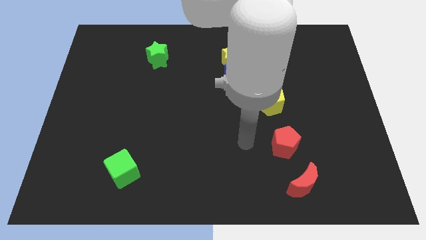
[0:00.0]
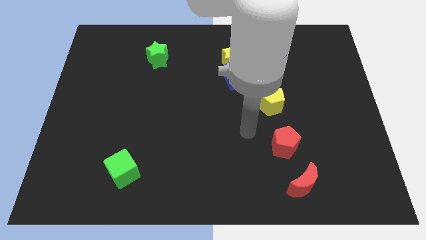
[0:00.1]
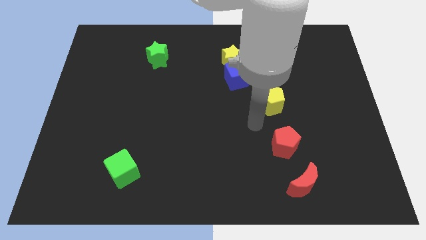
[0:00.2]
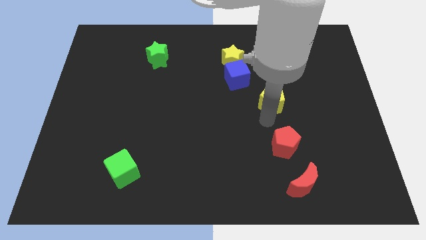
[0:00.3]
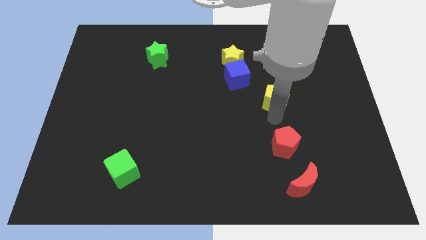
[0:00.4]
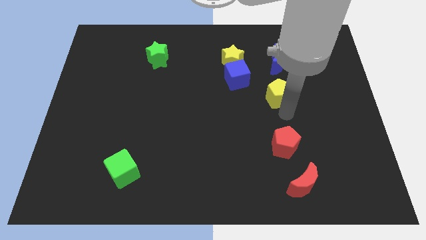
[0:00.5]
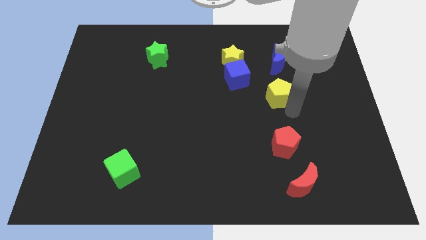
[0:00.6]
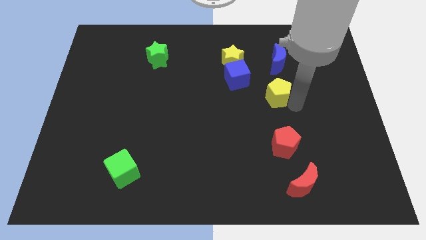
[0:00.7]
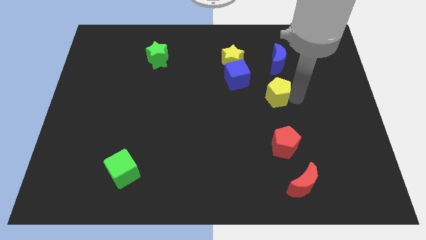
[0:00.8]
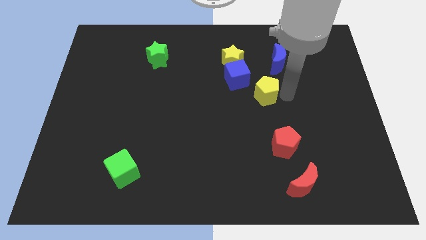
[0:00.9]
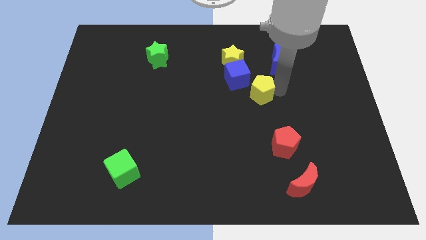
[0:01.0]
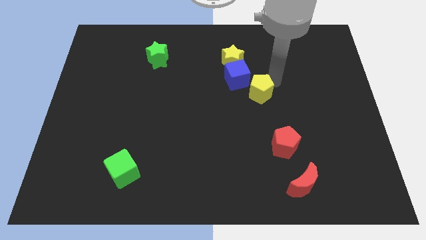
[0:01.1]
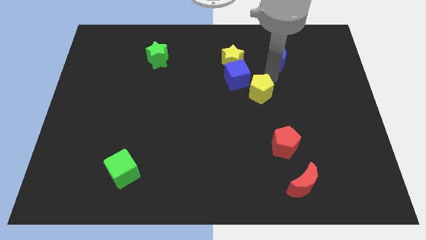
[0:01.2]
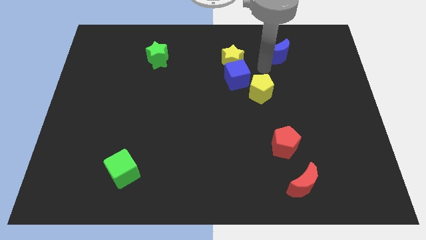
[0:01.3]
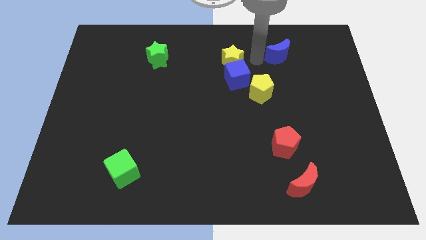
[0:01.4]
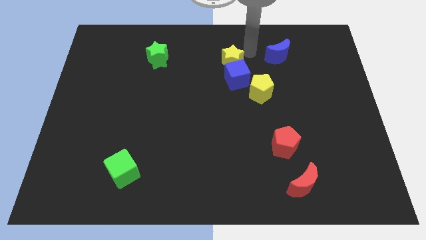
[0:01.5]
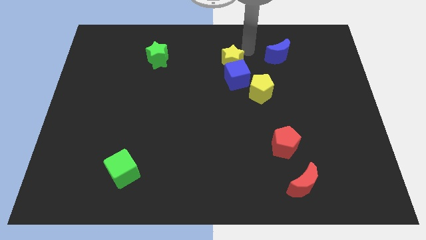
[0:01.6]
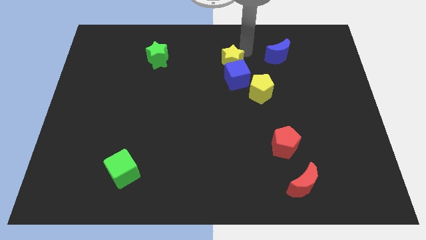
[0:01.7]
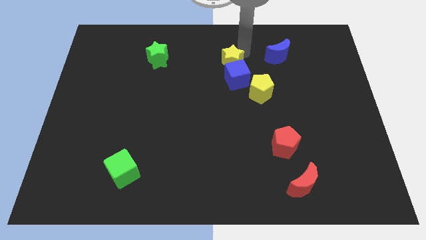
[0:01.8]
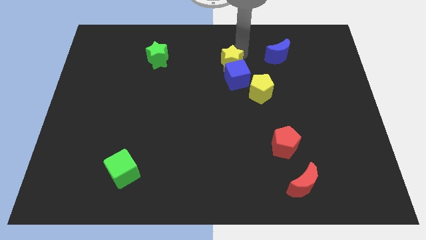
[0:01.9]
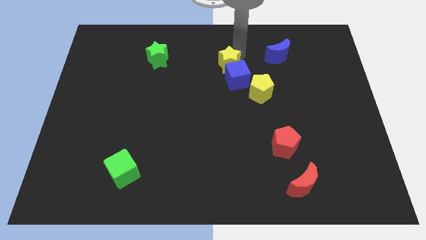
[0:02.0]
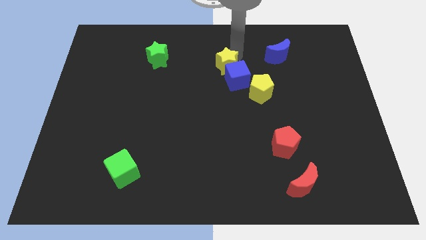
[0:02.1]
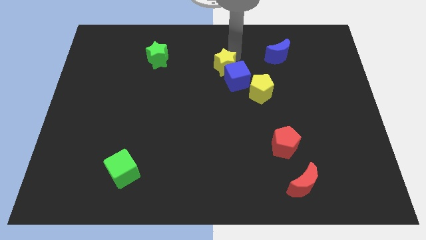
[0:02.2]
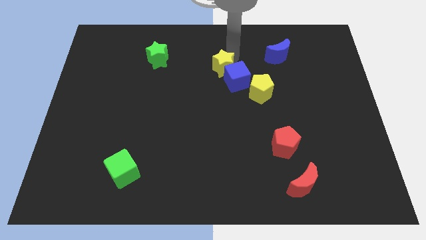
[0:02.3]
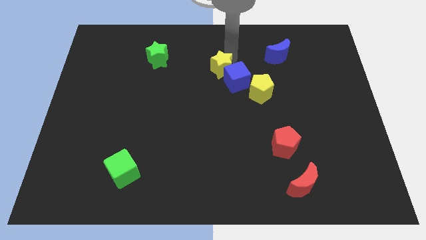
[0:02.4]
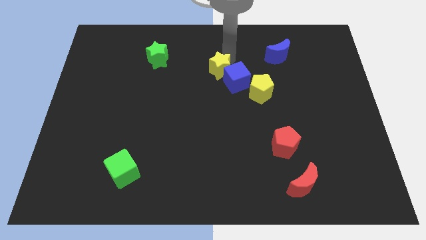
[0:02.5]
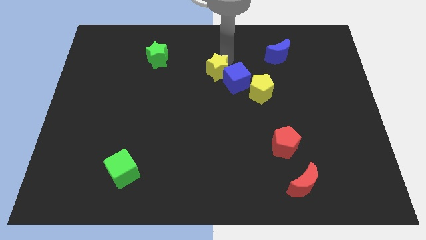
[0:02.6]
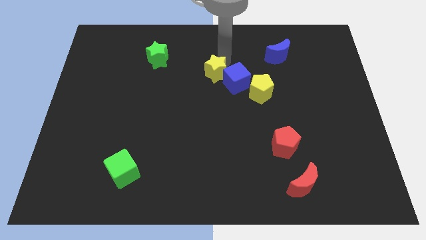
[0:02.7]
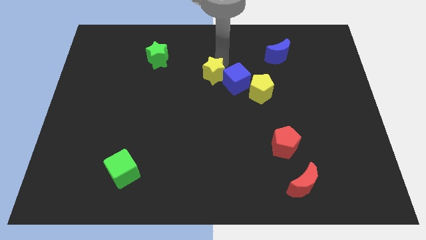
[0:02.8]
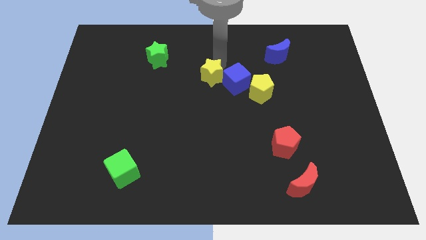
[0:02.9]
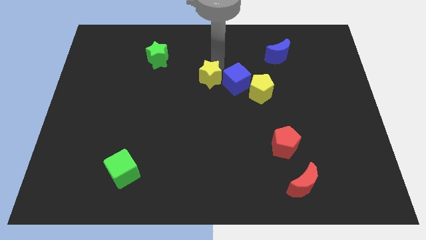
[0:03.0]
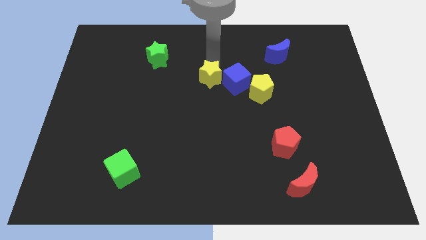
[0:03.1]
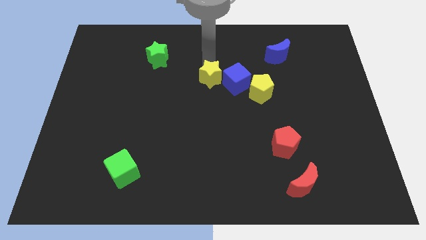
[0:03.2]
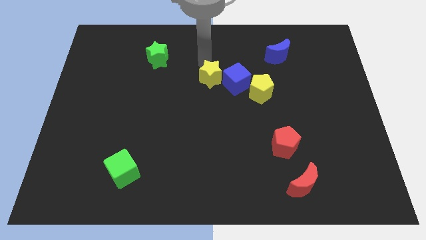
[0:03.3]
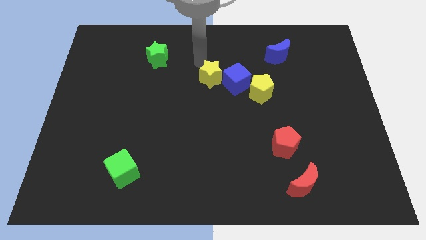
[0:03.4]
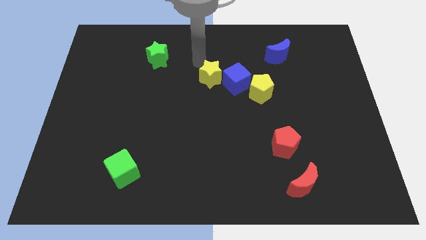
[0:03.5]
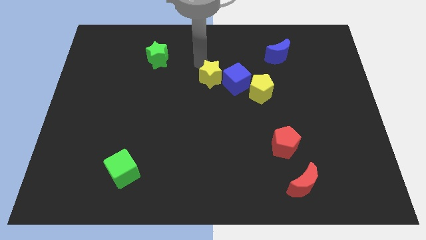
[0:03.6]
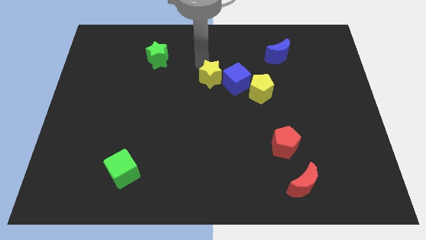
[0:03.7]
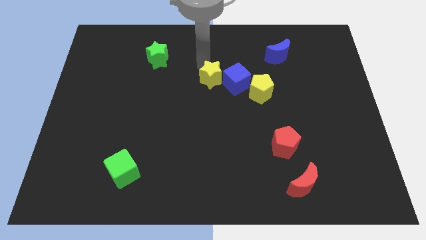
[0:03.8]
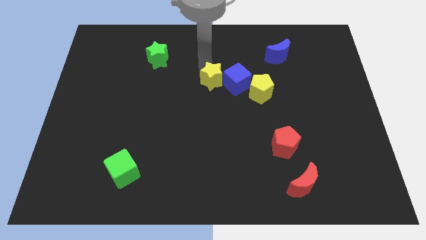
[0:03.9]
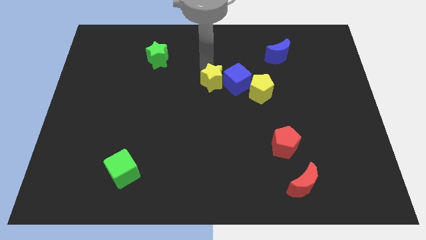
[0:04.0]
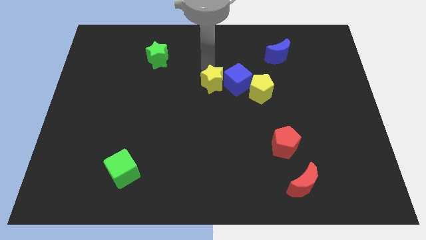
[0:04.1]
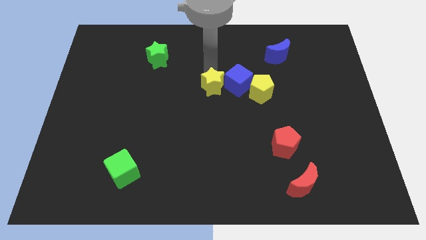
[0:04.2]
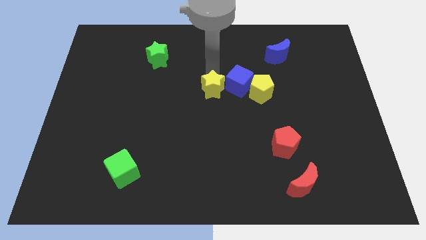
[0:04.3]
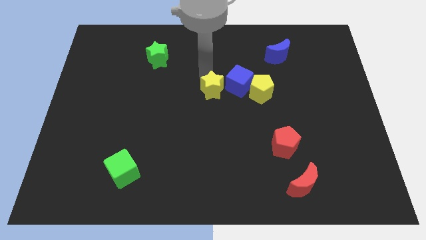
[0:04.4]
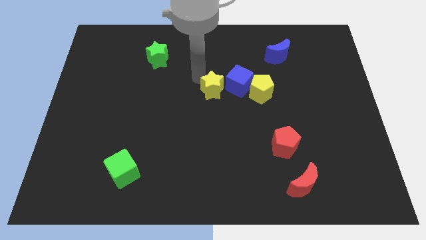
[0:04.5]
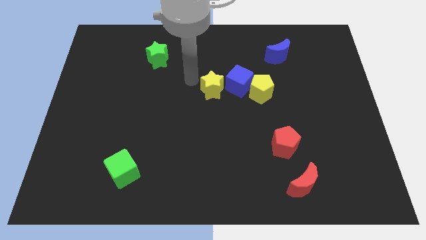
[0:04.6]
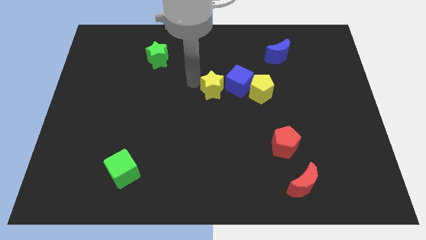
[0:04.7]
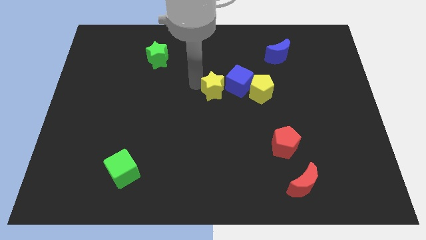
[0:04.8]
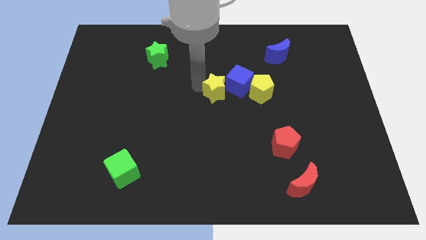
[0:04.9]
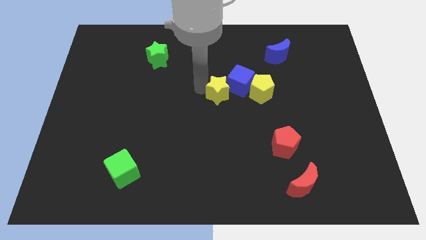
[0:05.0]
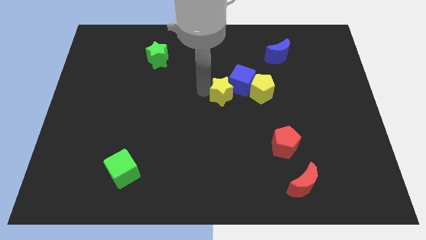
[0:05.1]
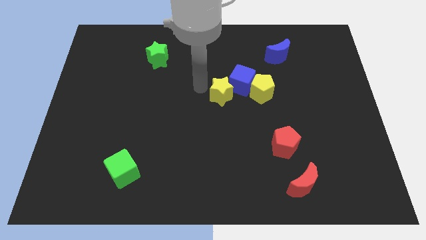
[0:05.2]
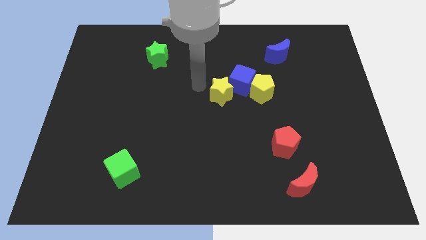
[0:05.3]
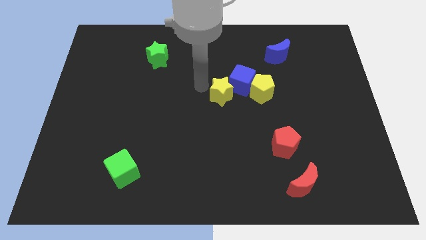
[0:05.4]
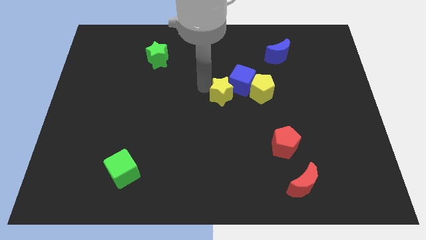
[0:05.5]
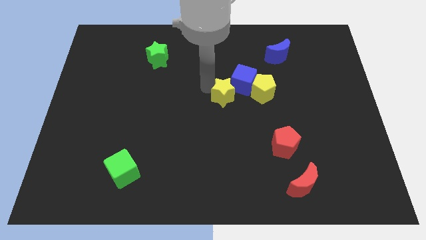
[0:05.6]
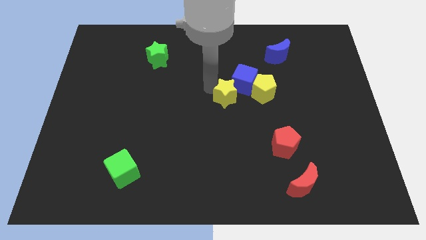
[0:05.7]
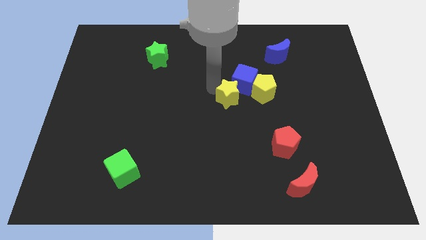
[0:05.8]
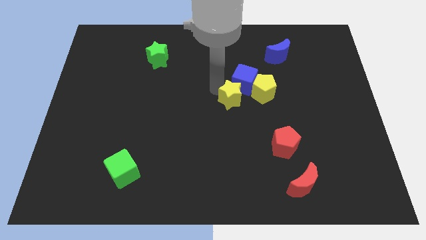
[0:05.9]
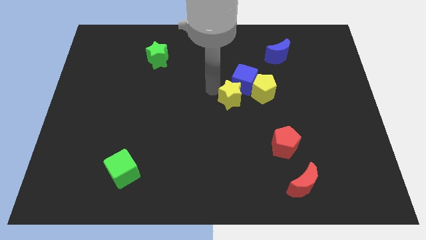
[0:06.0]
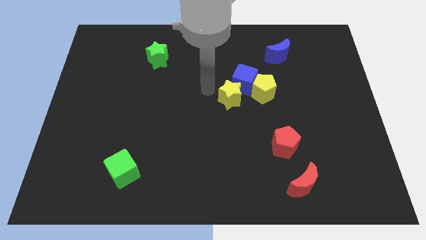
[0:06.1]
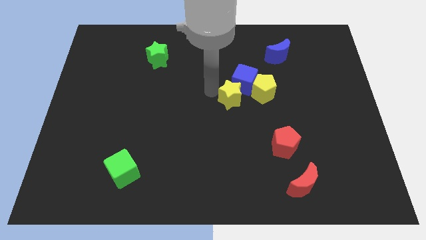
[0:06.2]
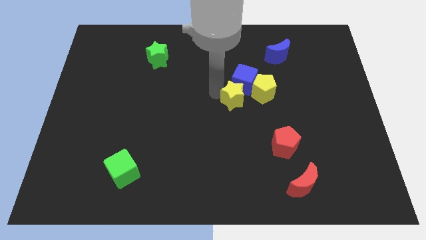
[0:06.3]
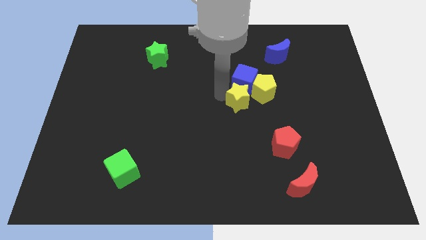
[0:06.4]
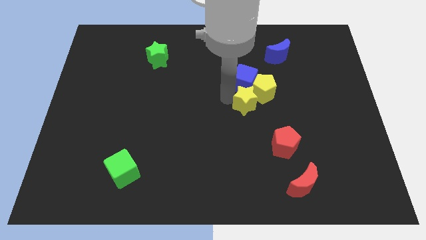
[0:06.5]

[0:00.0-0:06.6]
put the yellow star to the bottom right of the blue cube

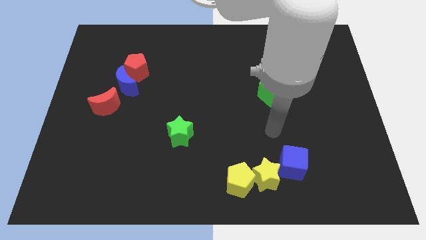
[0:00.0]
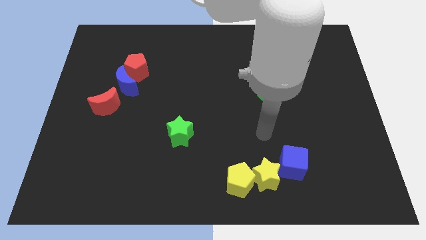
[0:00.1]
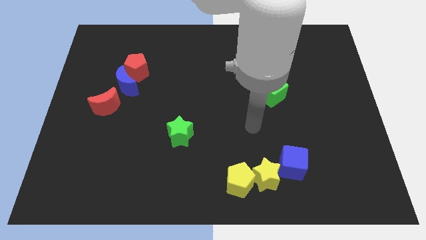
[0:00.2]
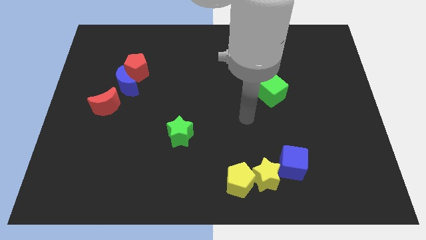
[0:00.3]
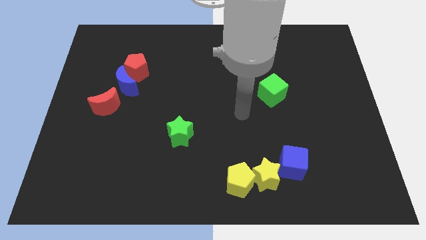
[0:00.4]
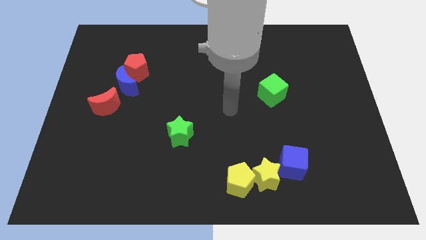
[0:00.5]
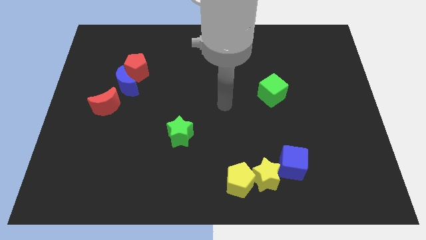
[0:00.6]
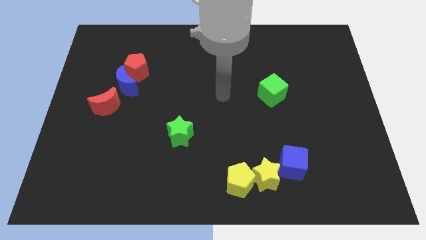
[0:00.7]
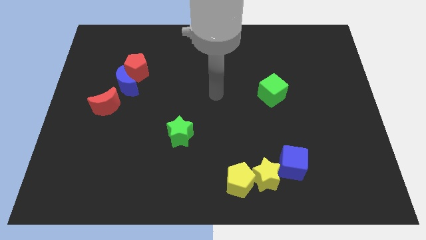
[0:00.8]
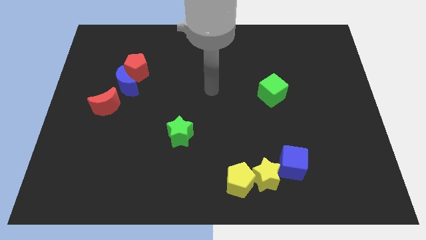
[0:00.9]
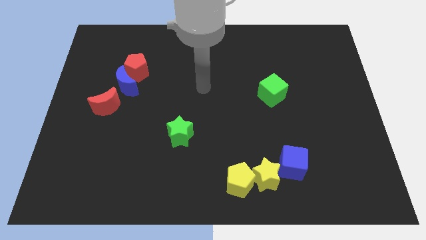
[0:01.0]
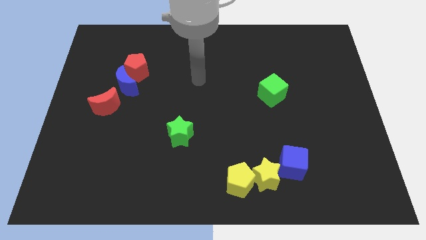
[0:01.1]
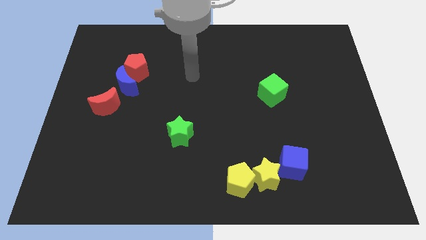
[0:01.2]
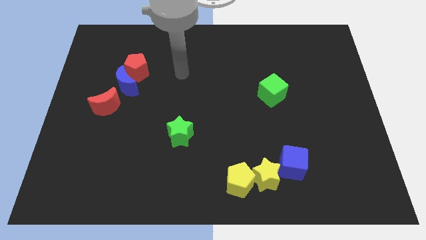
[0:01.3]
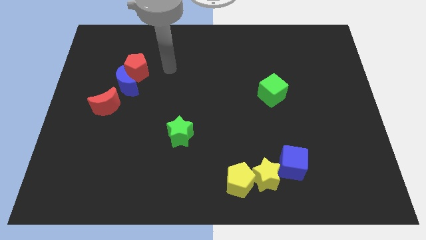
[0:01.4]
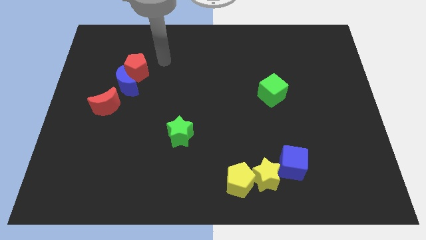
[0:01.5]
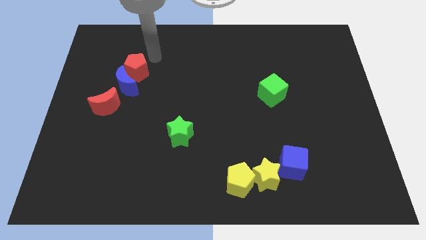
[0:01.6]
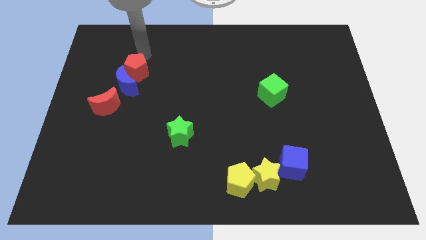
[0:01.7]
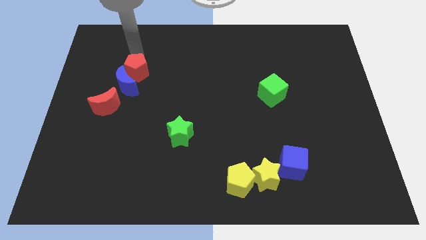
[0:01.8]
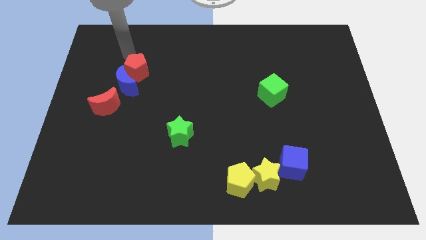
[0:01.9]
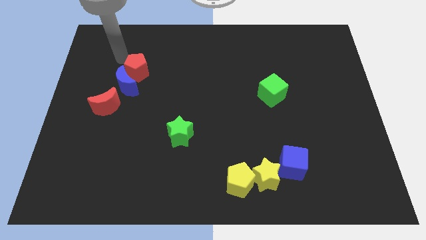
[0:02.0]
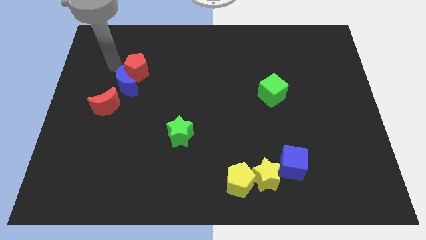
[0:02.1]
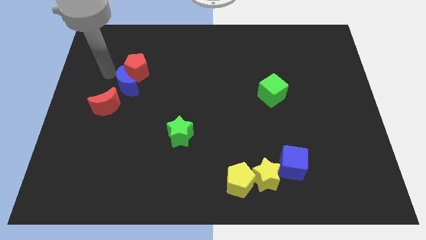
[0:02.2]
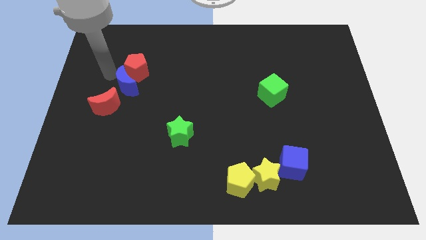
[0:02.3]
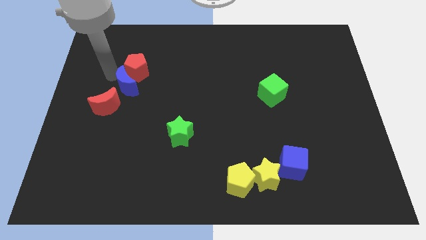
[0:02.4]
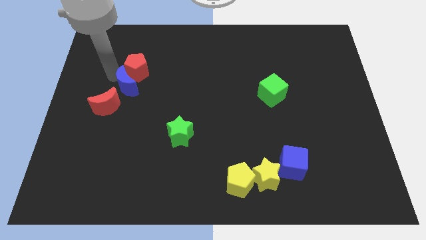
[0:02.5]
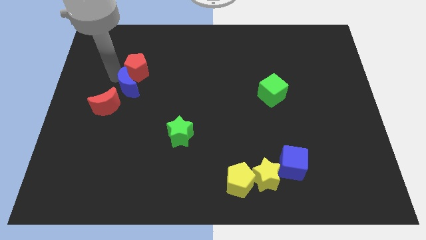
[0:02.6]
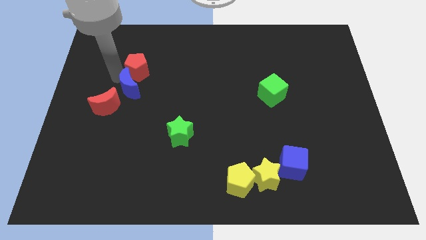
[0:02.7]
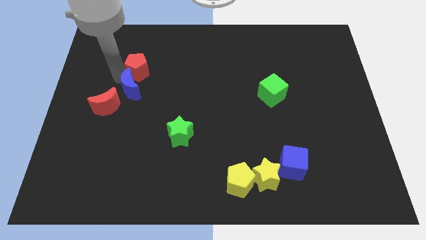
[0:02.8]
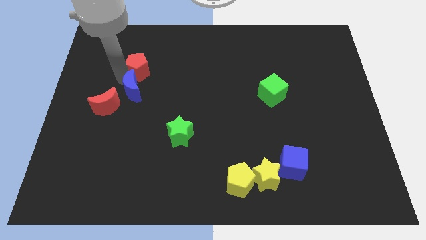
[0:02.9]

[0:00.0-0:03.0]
move the blue moon to the right side of the red moon
